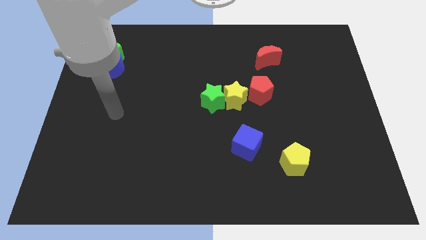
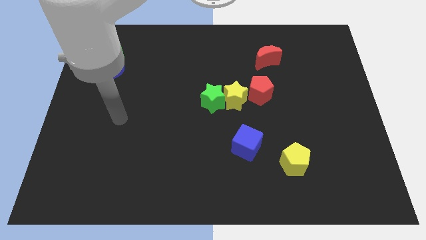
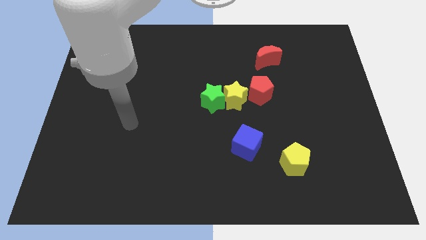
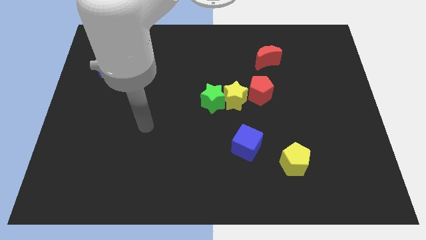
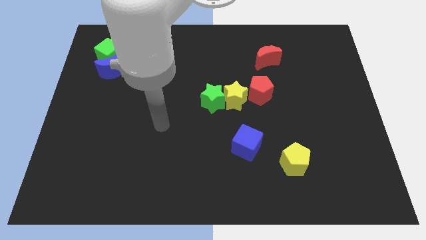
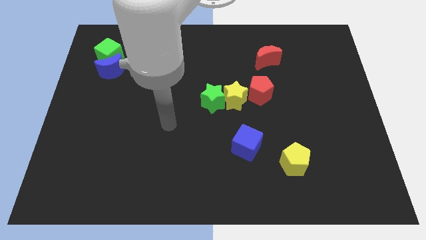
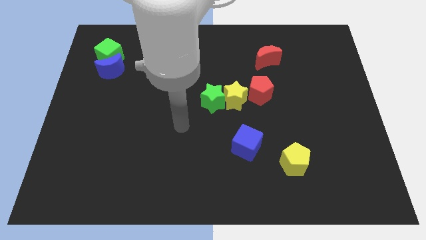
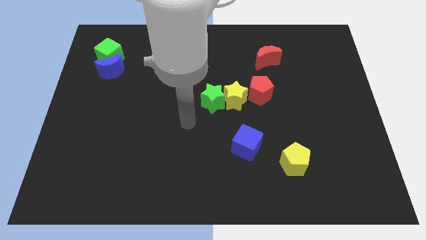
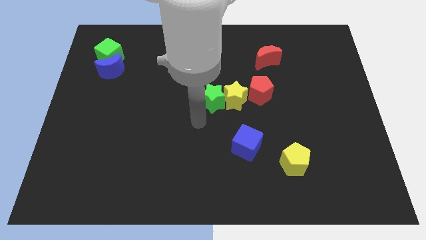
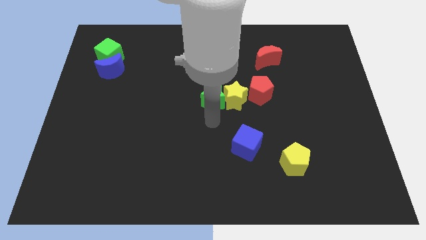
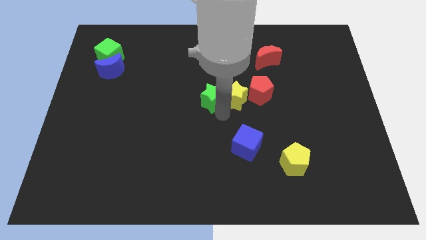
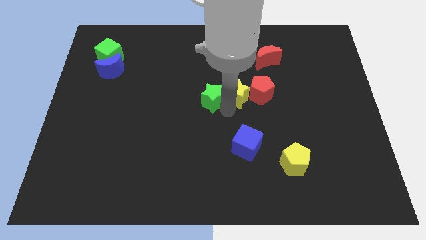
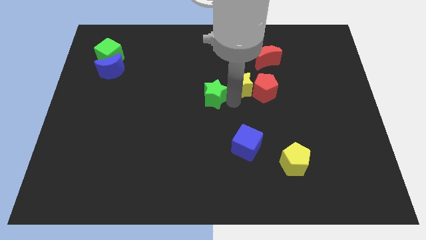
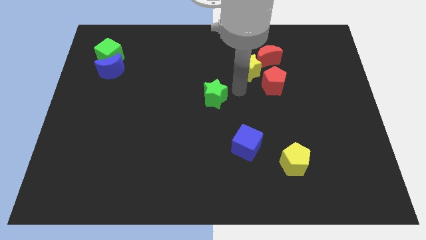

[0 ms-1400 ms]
move the green star away from the yellow star

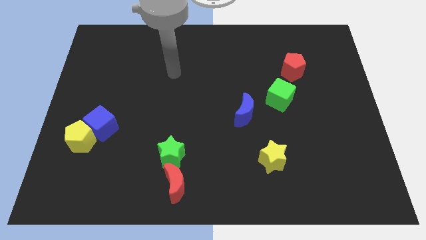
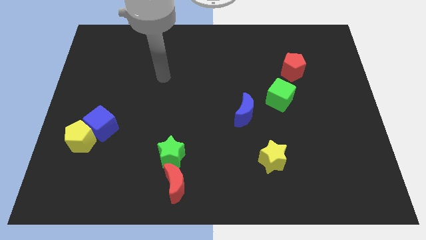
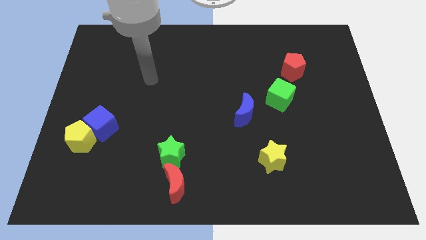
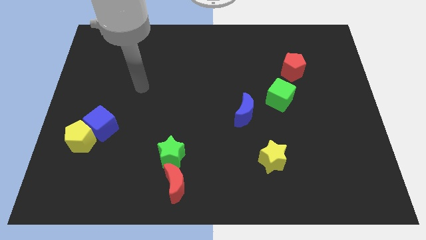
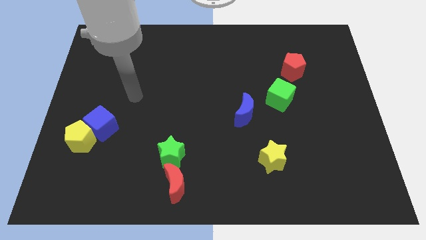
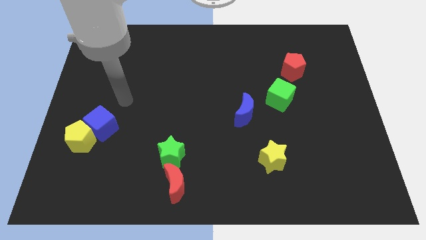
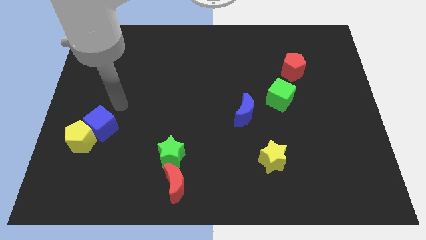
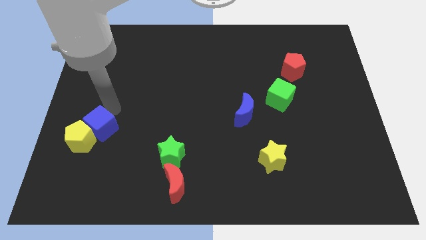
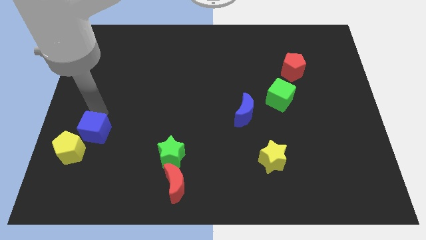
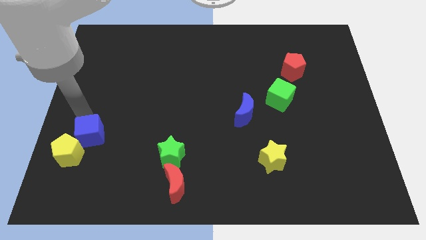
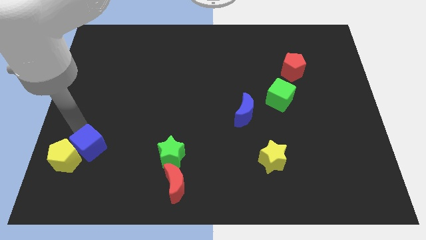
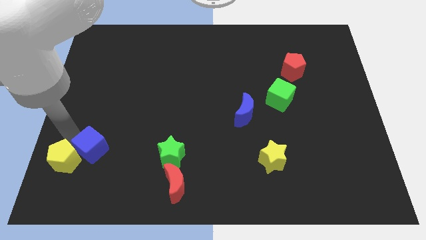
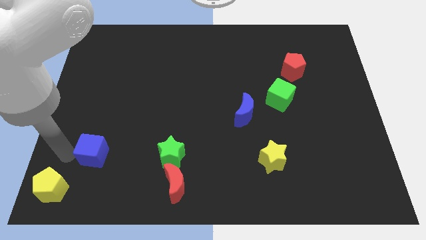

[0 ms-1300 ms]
move the blue cube away from the yellow pentagon

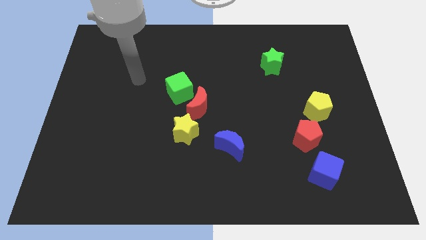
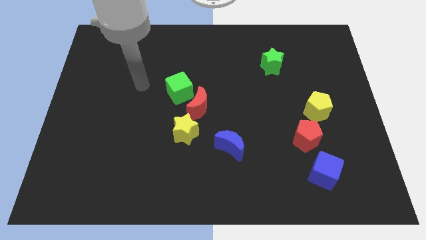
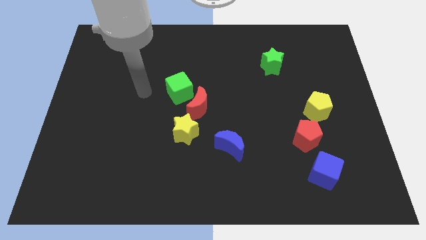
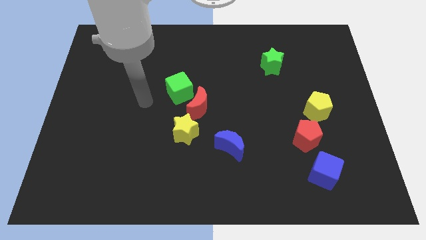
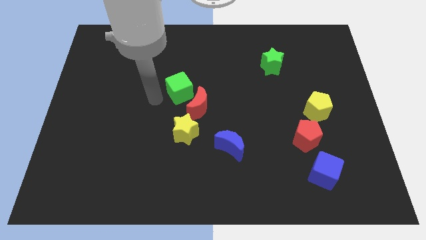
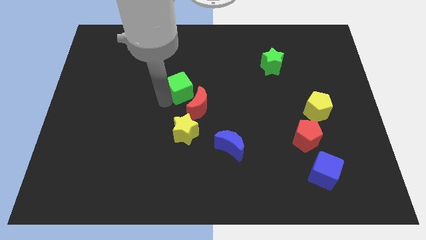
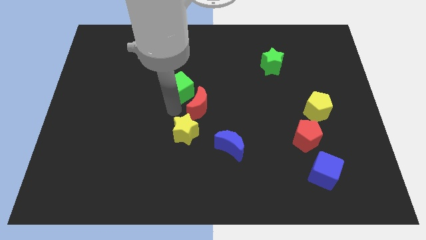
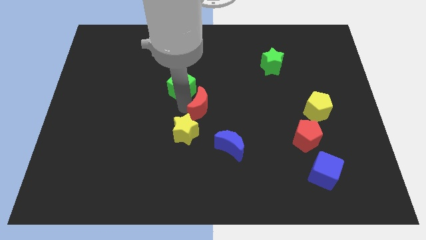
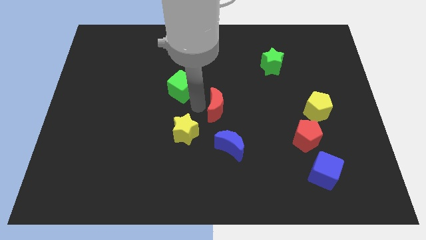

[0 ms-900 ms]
separate the green cube from the red moon

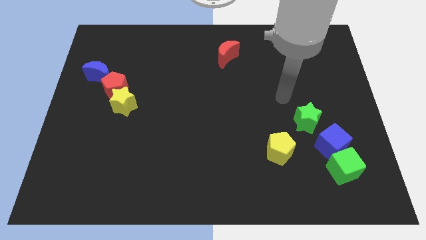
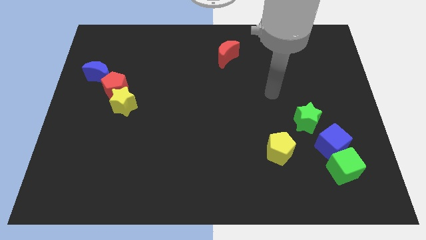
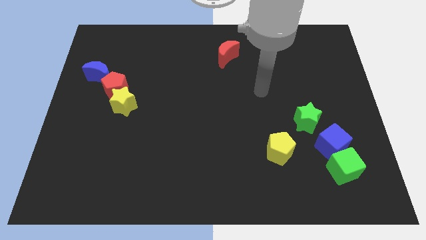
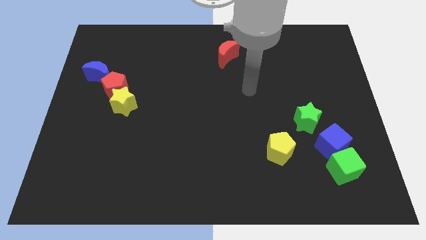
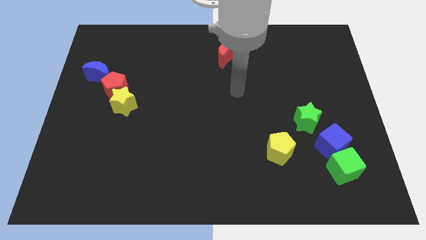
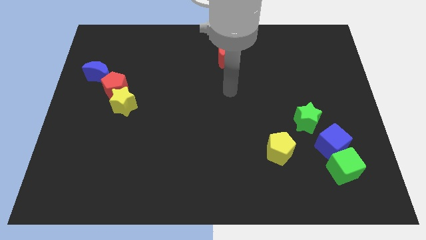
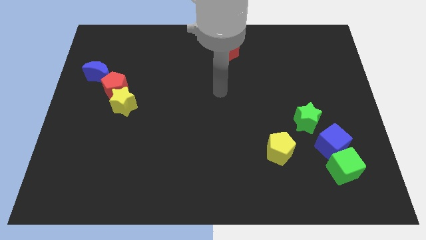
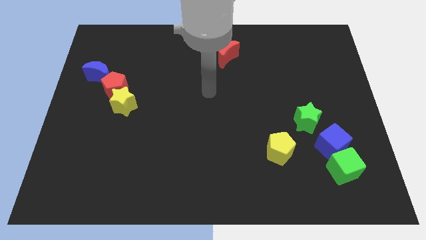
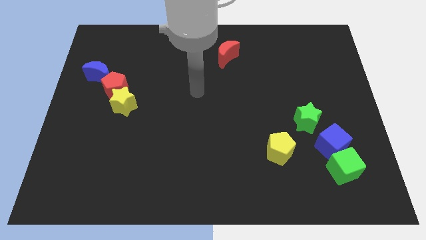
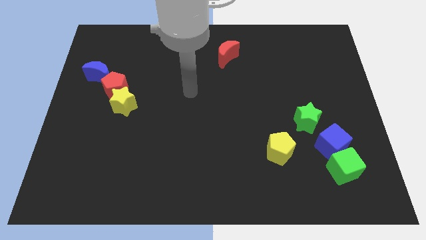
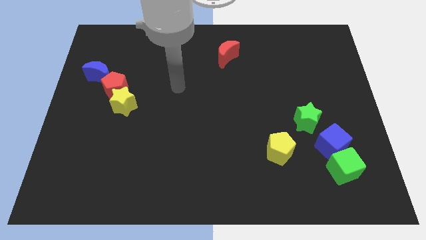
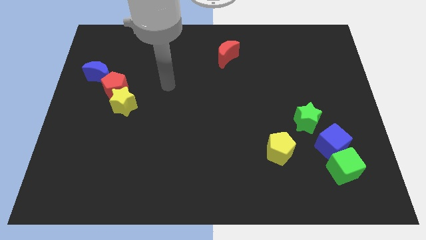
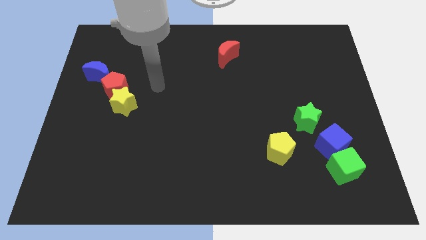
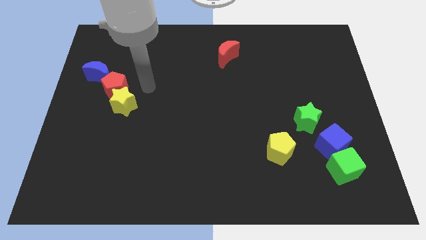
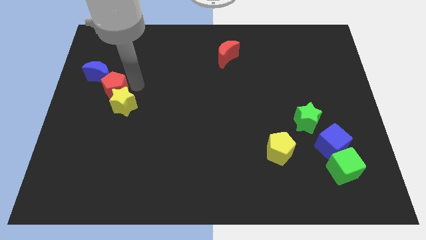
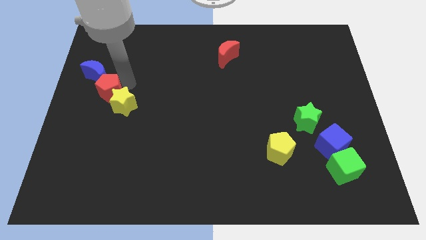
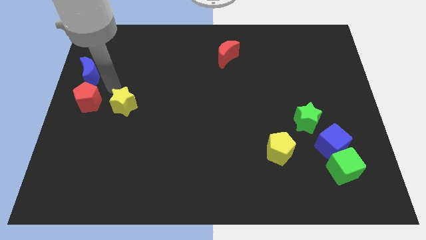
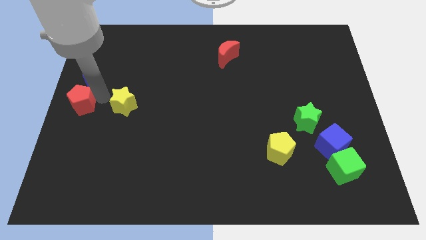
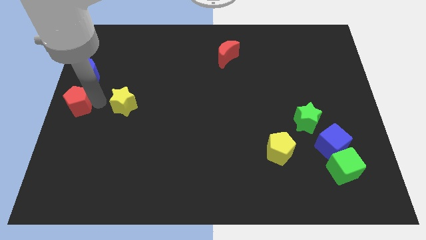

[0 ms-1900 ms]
separate the yellow star from the red pentagon

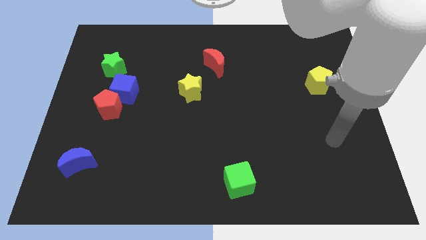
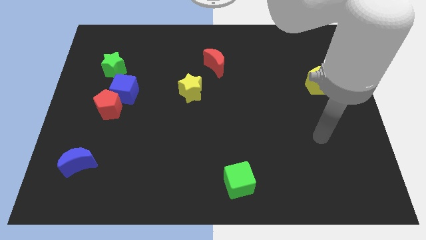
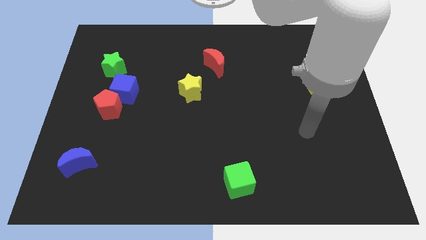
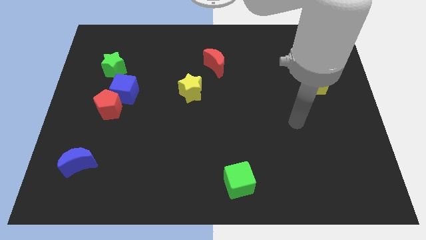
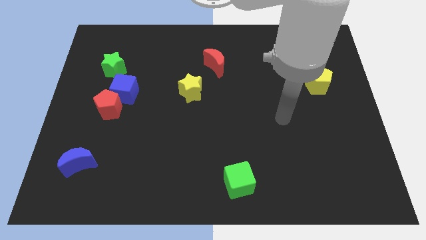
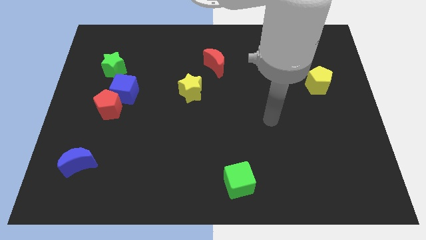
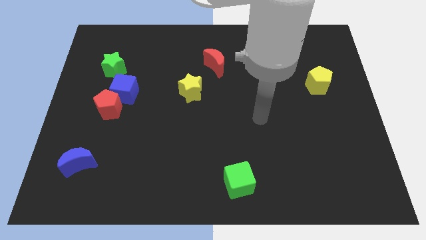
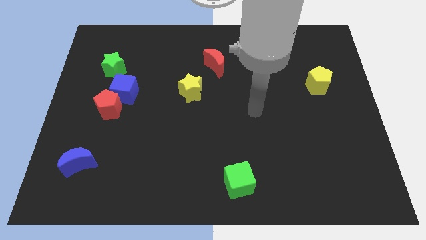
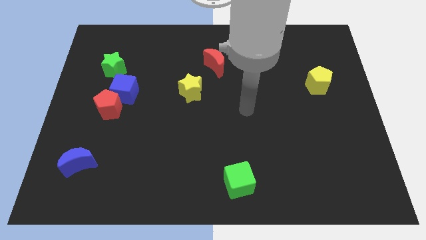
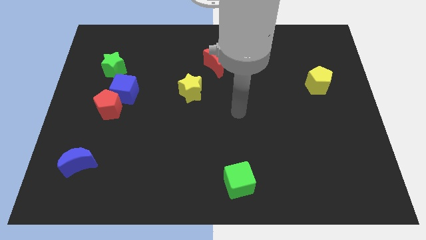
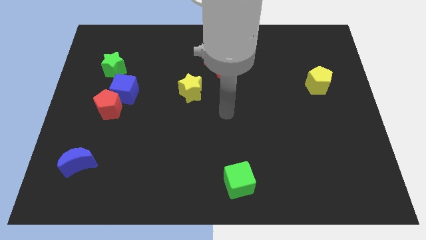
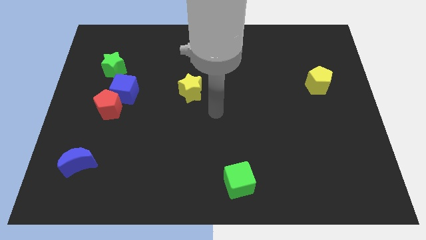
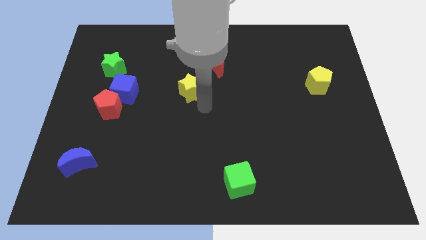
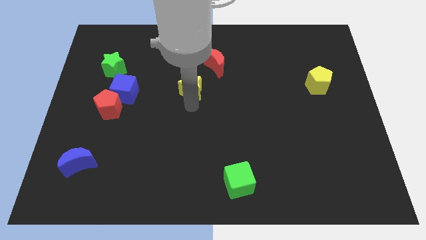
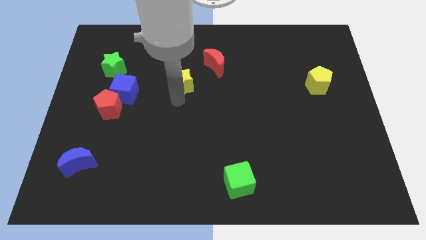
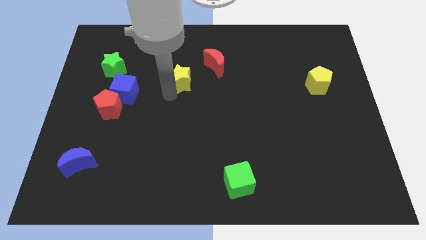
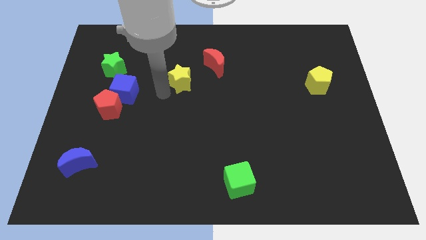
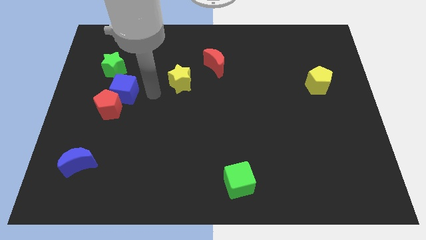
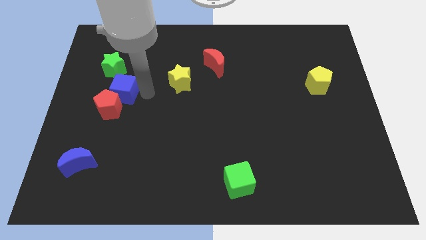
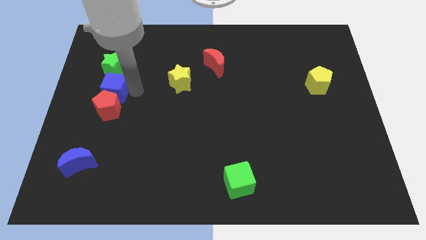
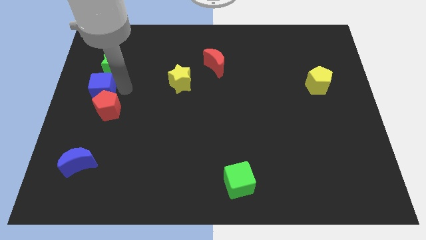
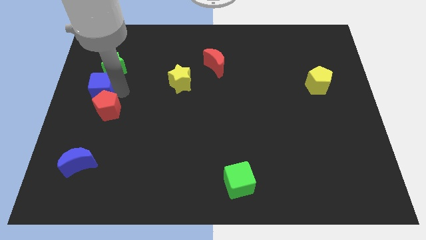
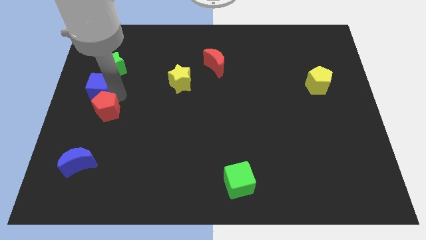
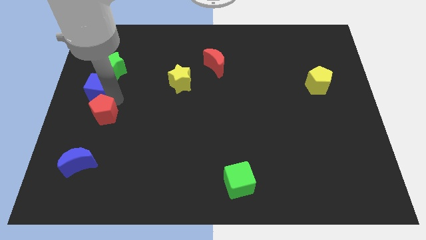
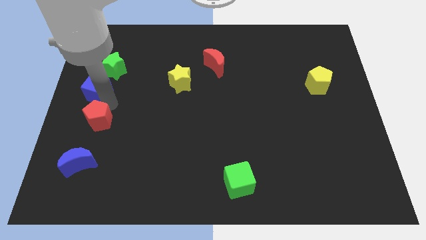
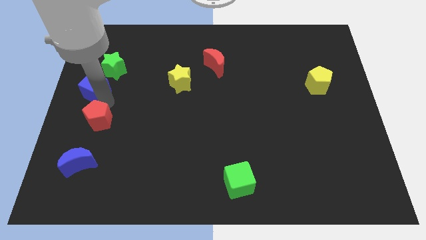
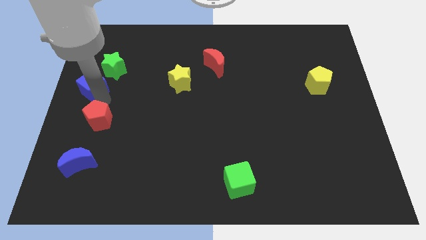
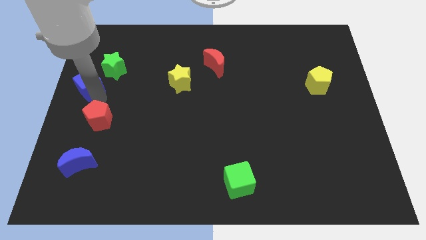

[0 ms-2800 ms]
separate the red pentagon from the blue cube

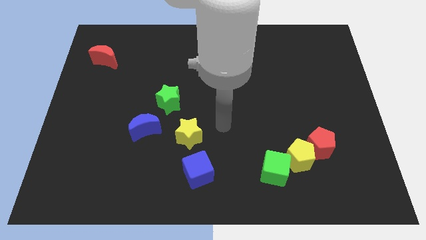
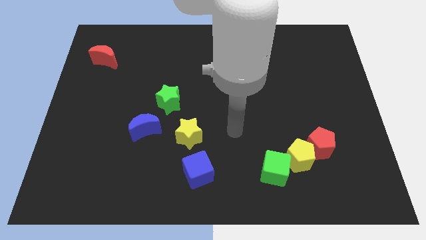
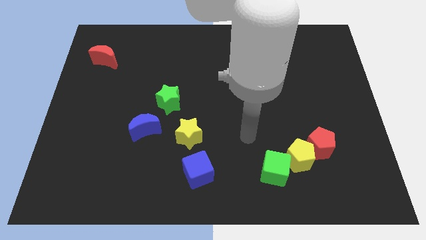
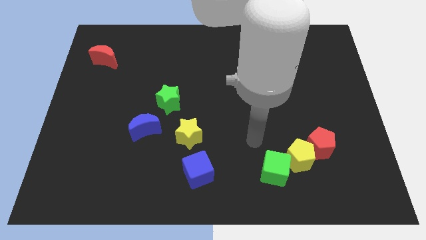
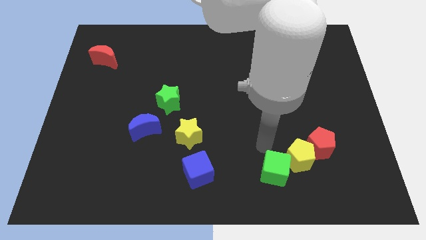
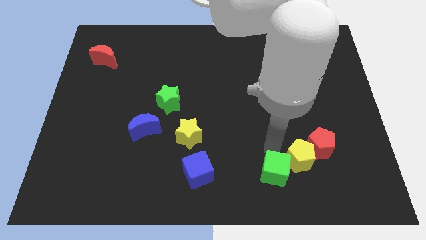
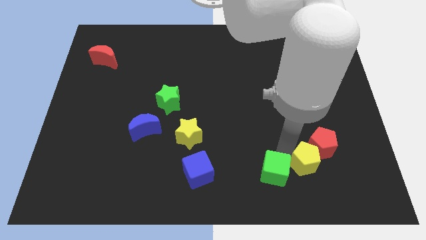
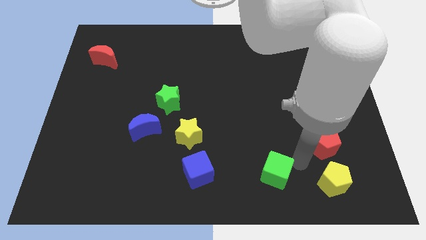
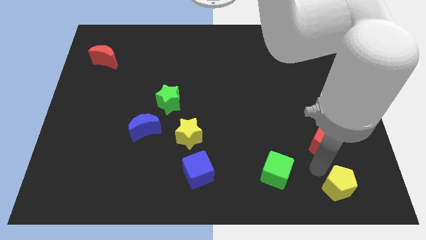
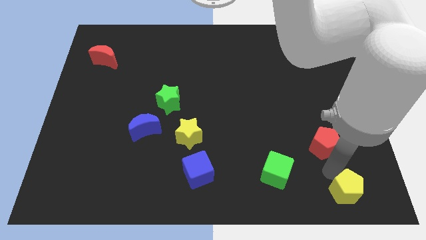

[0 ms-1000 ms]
pull the red pentagon apart from the yellow pentagon
